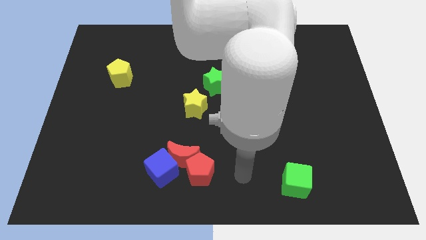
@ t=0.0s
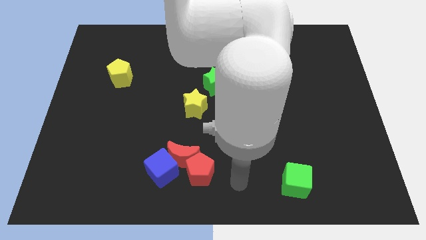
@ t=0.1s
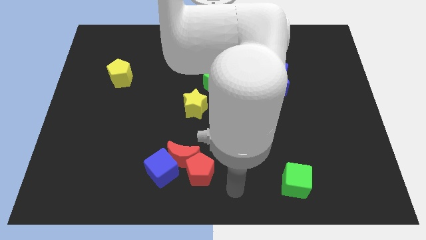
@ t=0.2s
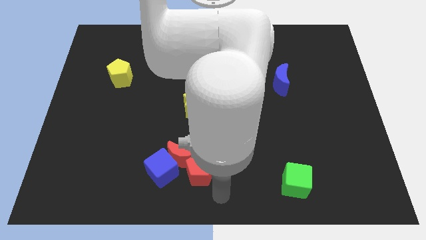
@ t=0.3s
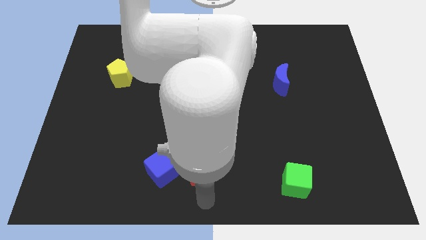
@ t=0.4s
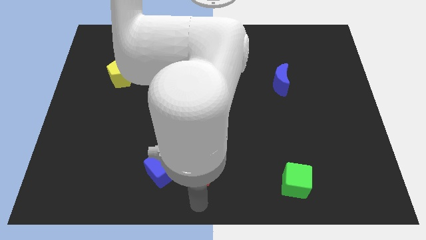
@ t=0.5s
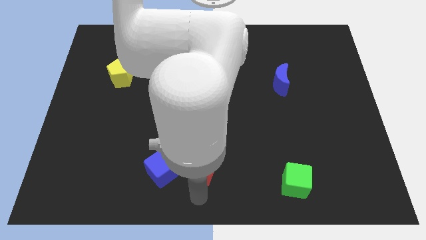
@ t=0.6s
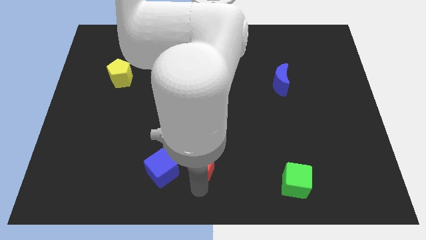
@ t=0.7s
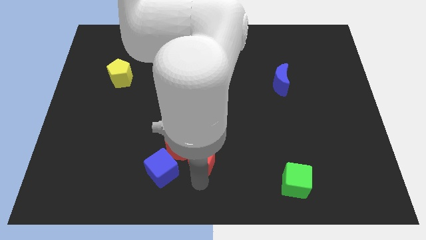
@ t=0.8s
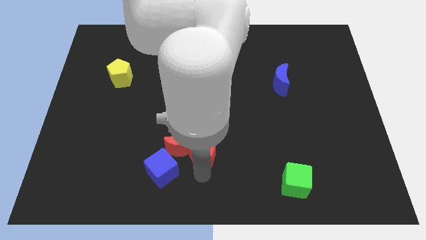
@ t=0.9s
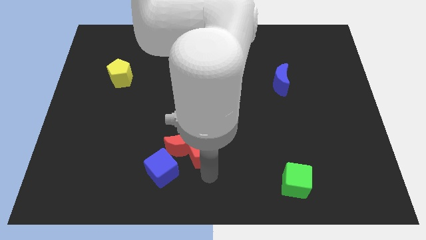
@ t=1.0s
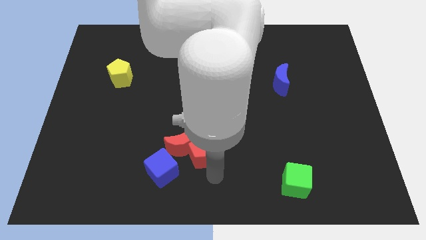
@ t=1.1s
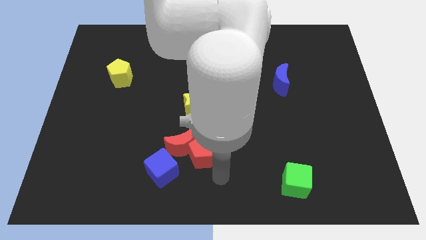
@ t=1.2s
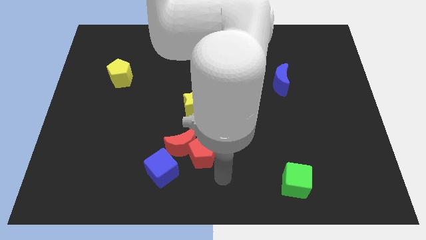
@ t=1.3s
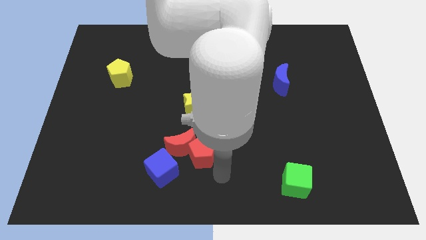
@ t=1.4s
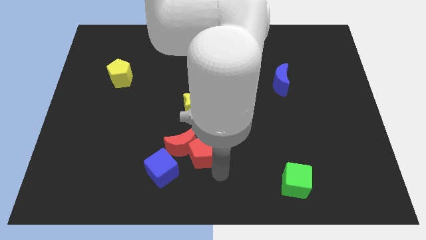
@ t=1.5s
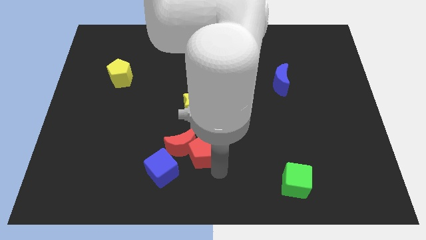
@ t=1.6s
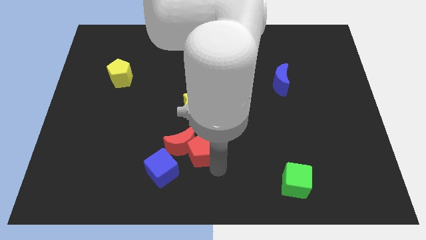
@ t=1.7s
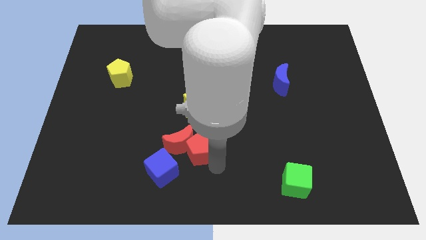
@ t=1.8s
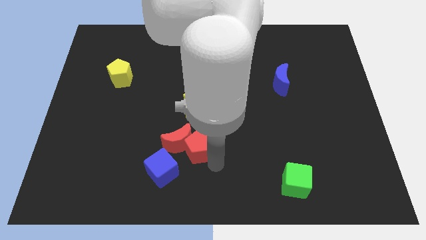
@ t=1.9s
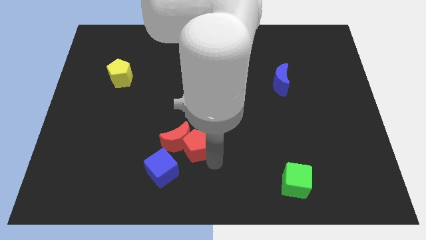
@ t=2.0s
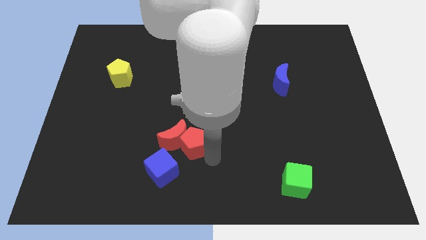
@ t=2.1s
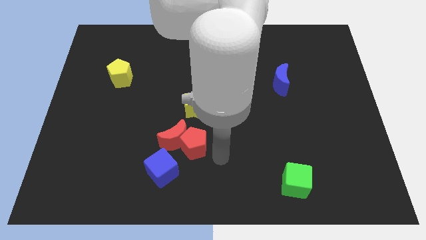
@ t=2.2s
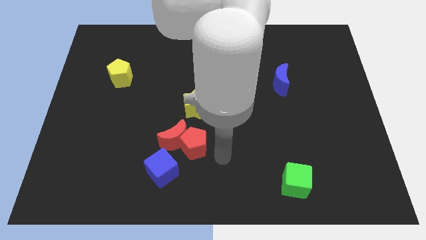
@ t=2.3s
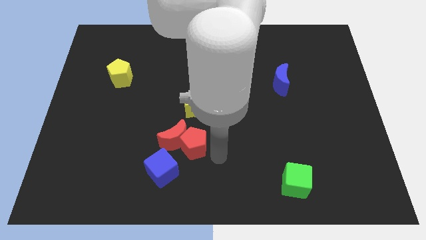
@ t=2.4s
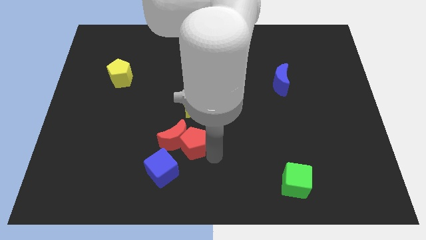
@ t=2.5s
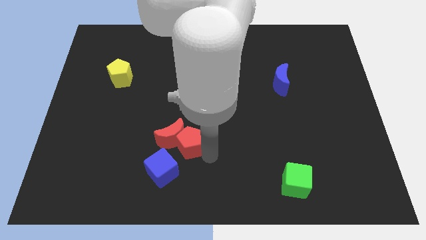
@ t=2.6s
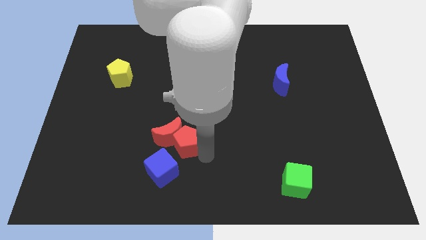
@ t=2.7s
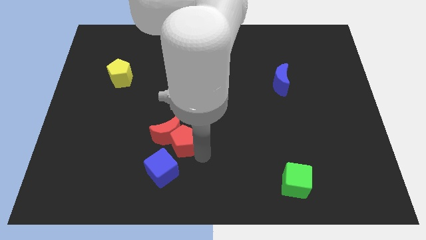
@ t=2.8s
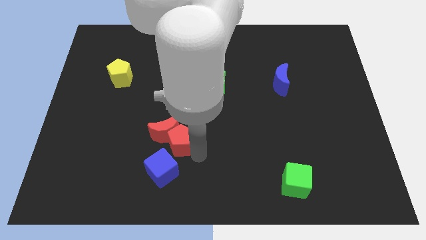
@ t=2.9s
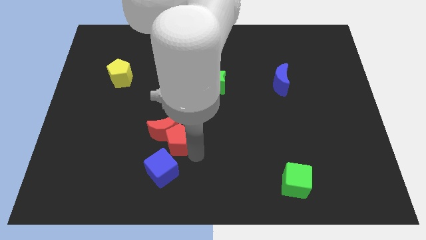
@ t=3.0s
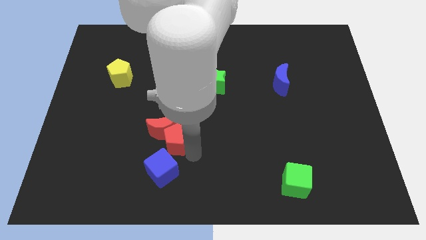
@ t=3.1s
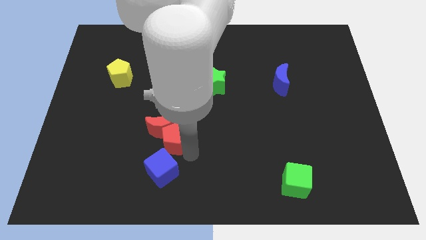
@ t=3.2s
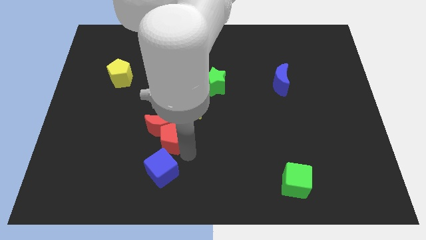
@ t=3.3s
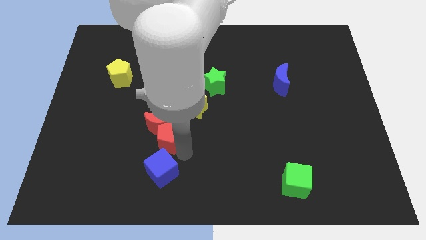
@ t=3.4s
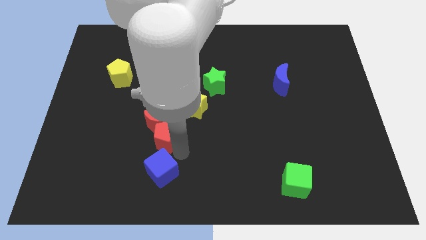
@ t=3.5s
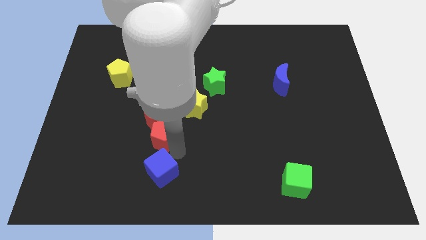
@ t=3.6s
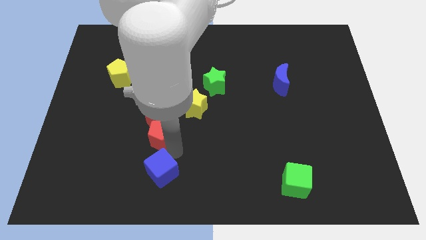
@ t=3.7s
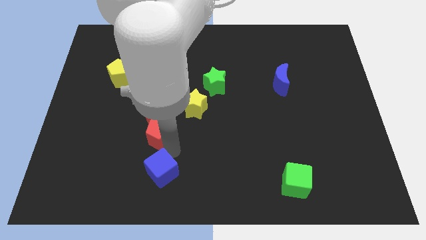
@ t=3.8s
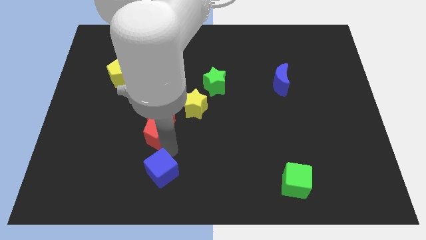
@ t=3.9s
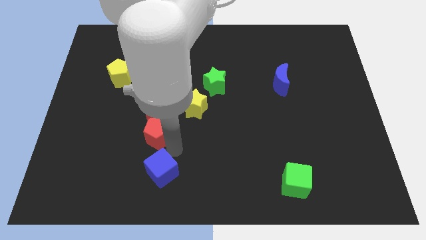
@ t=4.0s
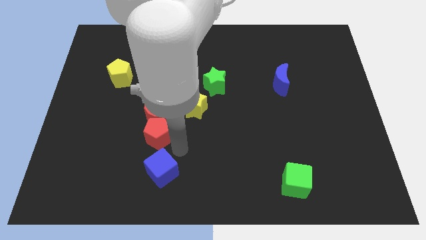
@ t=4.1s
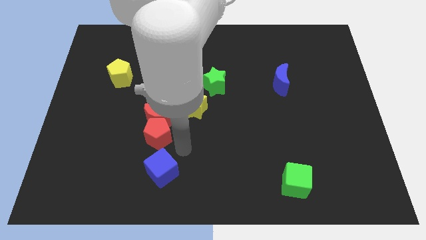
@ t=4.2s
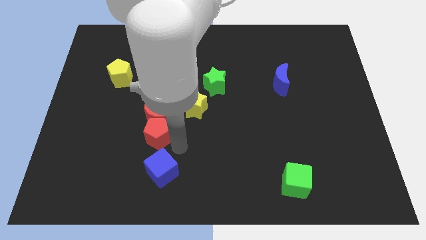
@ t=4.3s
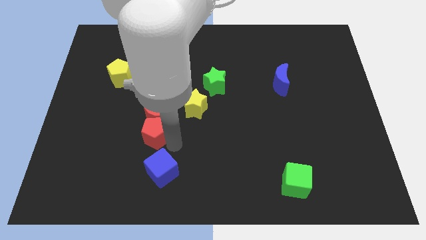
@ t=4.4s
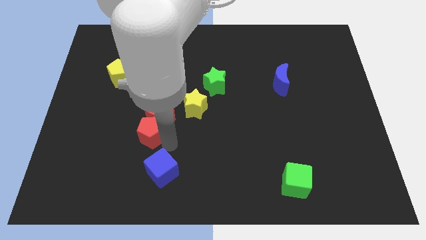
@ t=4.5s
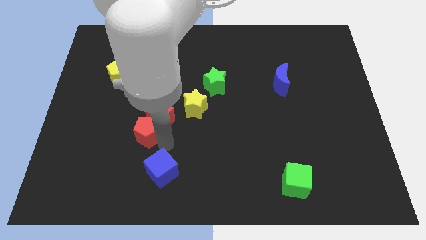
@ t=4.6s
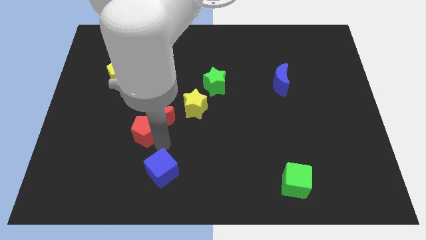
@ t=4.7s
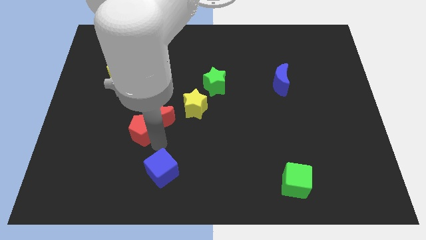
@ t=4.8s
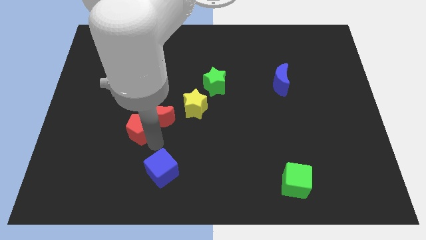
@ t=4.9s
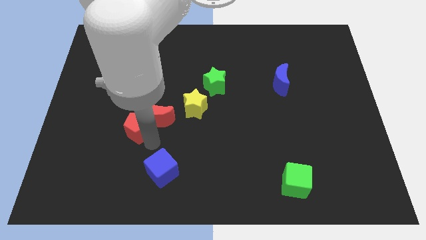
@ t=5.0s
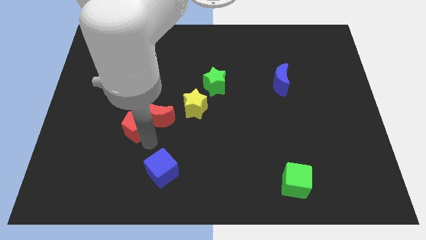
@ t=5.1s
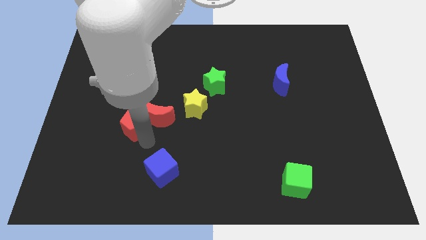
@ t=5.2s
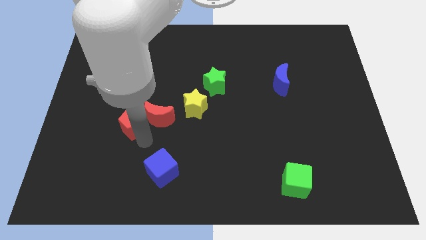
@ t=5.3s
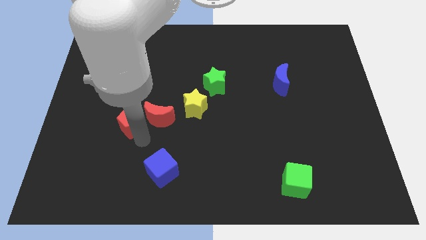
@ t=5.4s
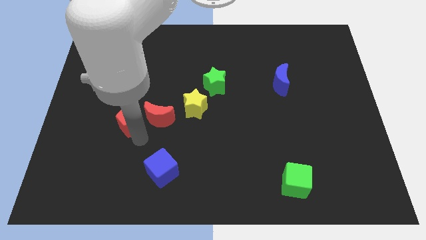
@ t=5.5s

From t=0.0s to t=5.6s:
move the red pentagon up and to the left

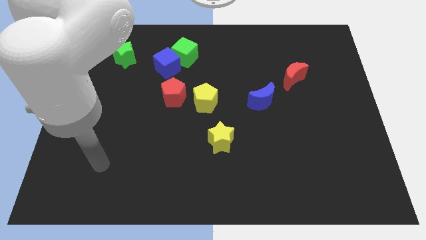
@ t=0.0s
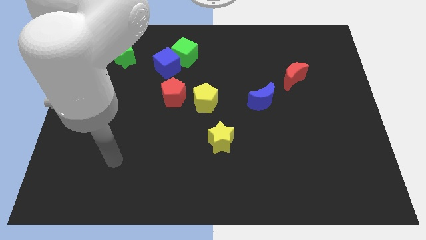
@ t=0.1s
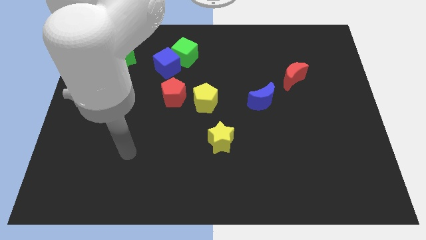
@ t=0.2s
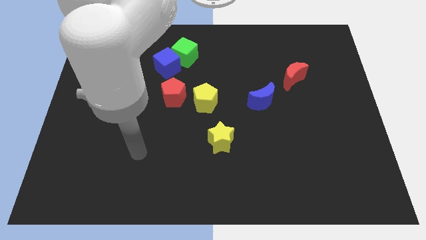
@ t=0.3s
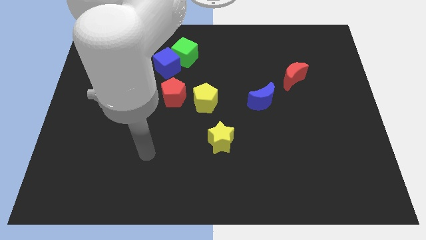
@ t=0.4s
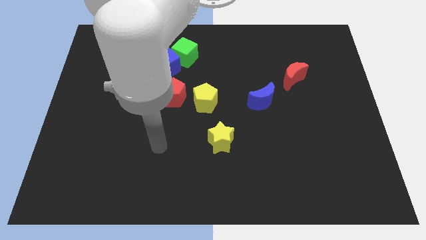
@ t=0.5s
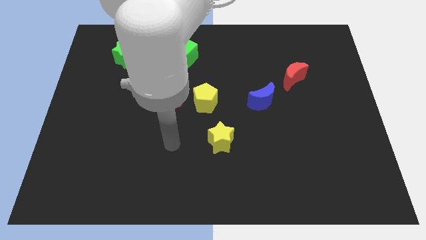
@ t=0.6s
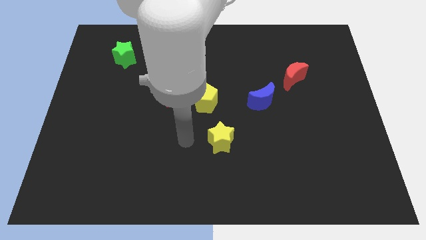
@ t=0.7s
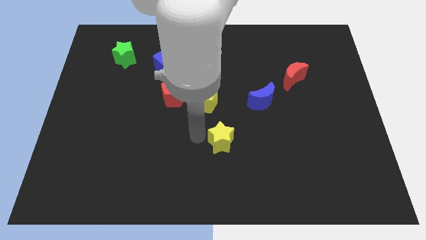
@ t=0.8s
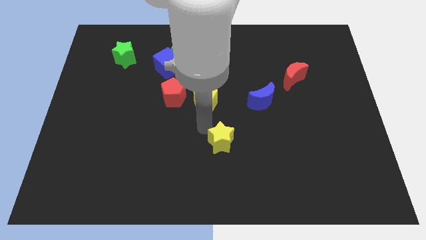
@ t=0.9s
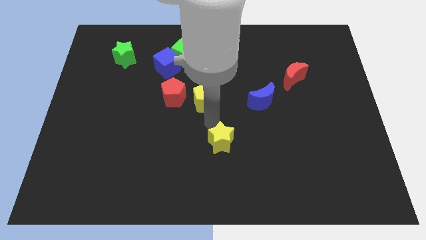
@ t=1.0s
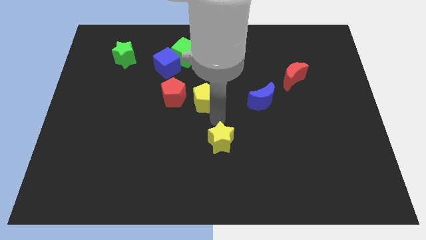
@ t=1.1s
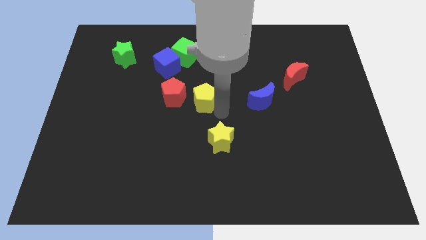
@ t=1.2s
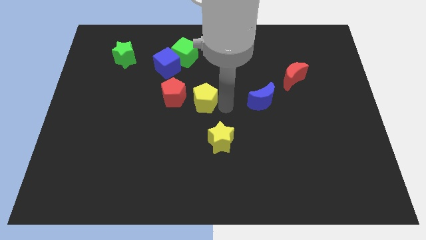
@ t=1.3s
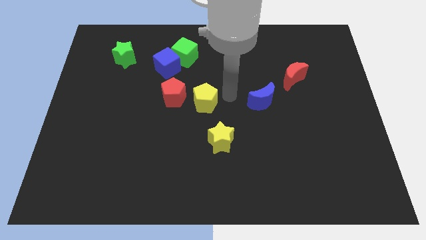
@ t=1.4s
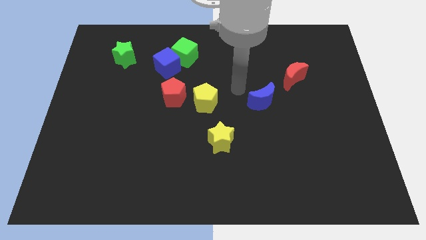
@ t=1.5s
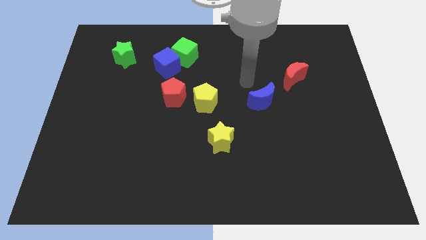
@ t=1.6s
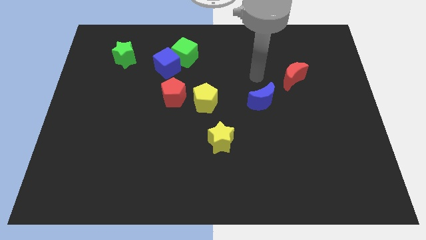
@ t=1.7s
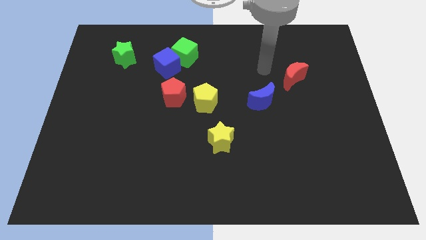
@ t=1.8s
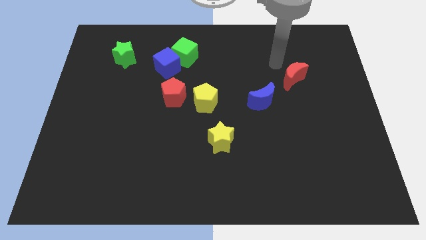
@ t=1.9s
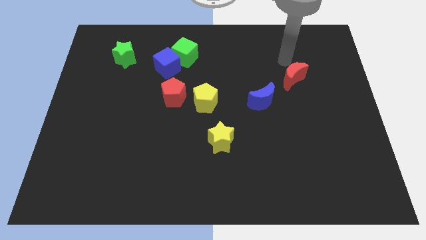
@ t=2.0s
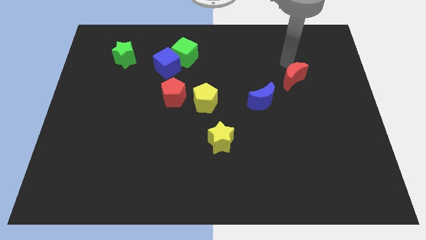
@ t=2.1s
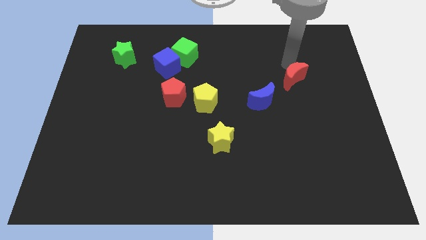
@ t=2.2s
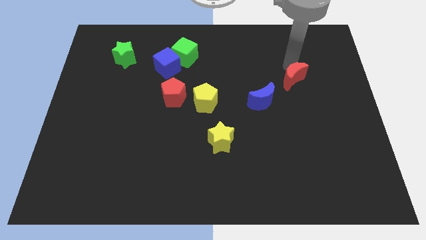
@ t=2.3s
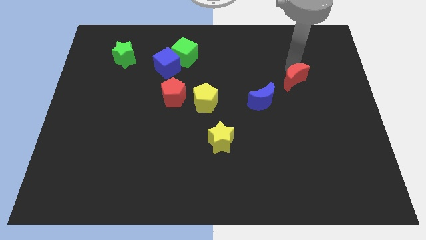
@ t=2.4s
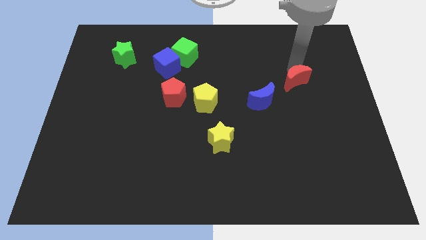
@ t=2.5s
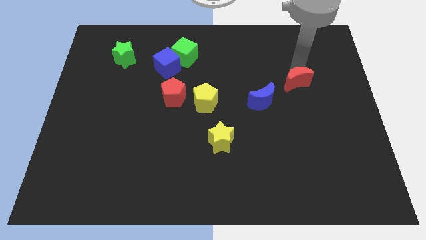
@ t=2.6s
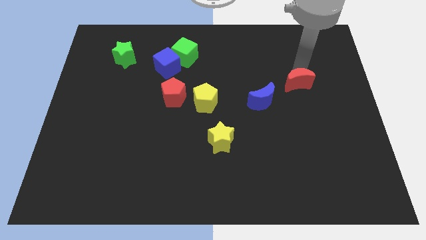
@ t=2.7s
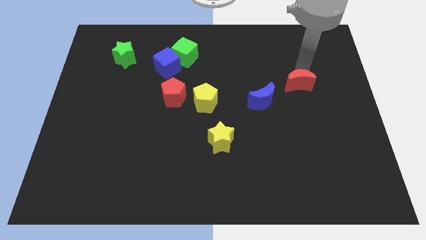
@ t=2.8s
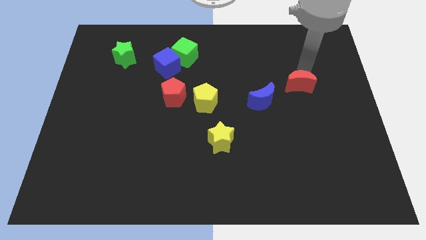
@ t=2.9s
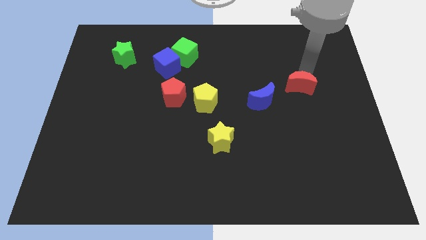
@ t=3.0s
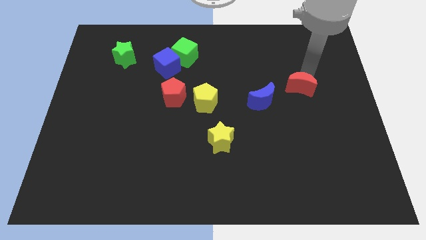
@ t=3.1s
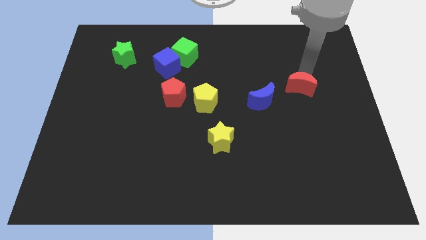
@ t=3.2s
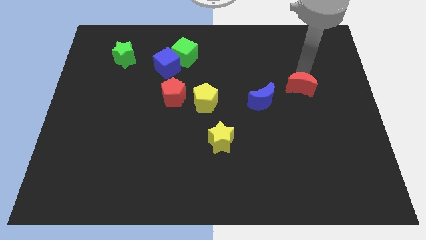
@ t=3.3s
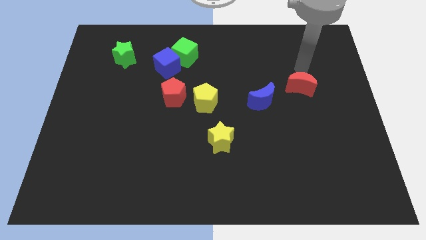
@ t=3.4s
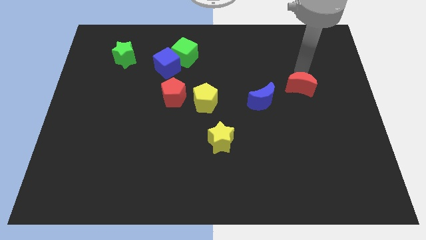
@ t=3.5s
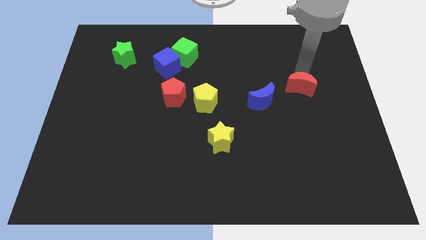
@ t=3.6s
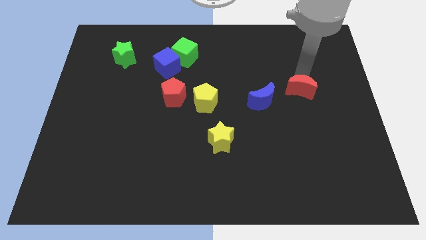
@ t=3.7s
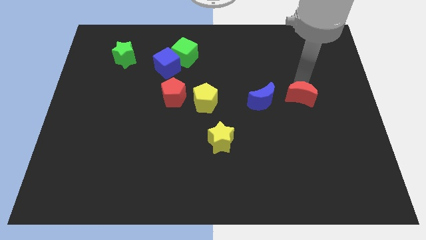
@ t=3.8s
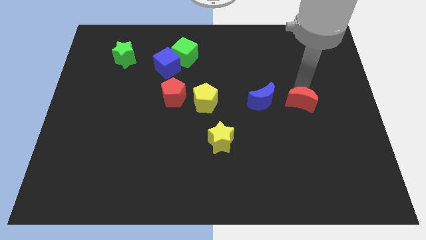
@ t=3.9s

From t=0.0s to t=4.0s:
slide the red moon downwards a little bit
